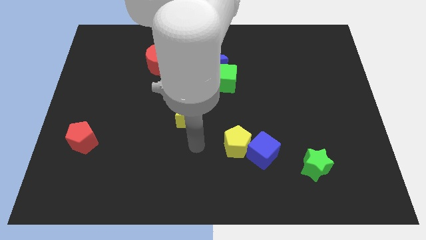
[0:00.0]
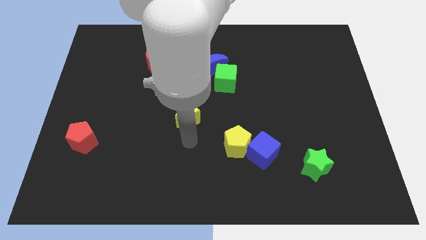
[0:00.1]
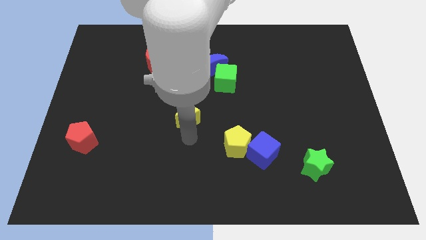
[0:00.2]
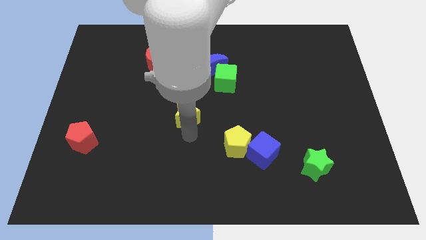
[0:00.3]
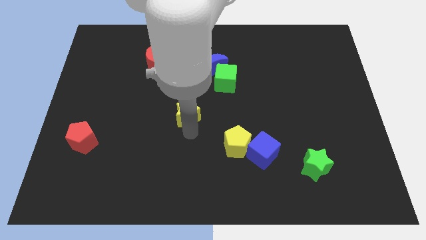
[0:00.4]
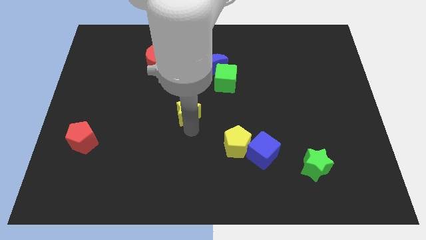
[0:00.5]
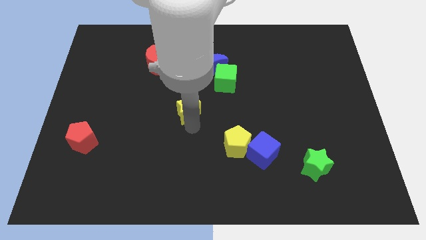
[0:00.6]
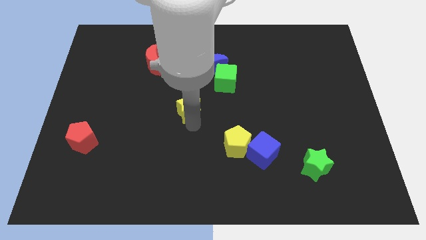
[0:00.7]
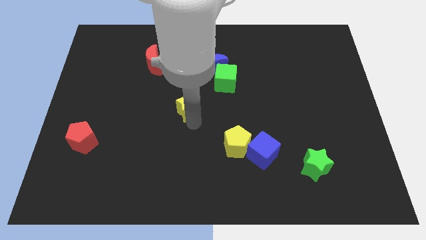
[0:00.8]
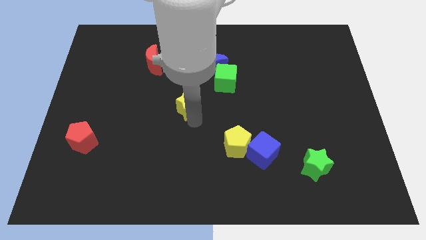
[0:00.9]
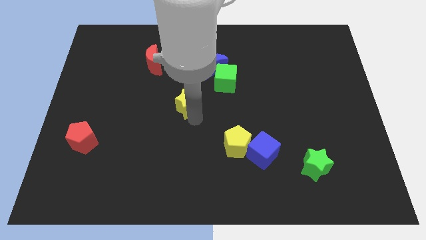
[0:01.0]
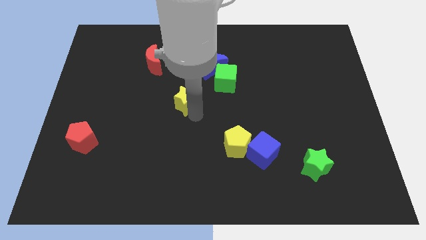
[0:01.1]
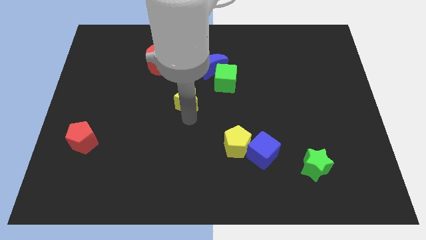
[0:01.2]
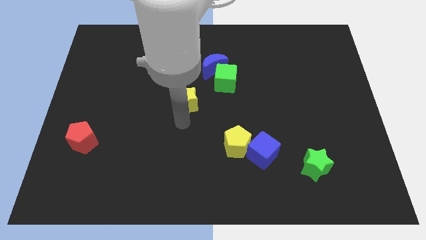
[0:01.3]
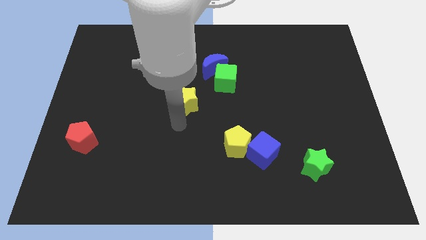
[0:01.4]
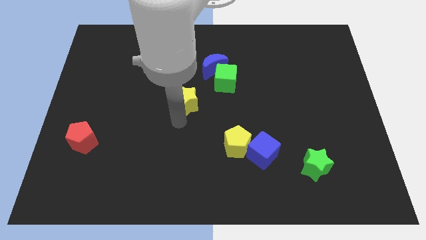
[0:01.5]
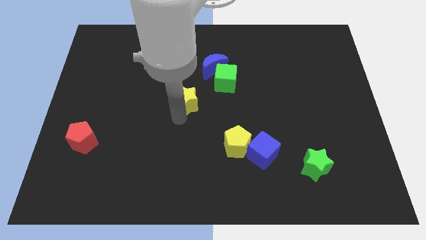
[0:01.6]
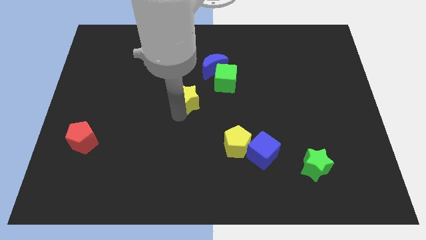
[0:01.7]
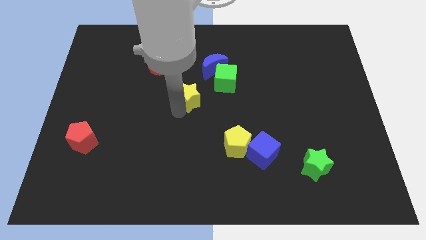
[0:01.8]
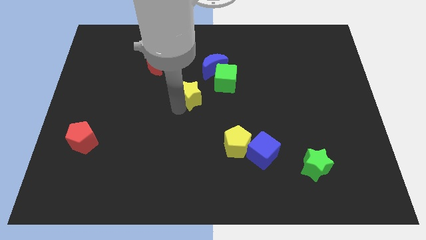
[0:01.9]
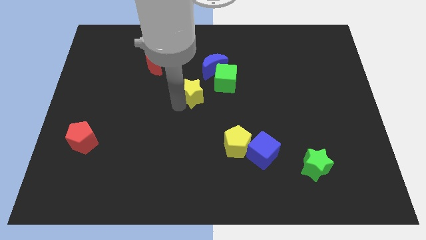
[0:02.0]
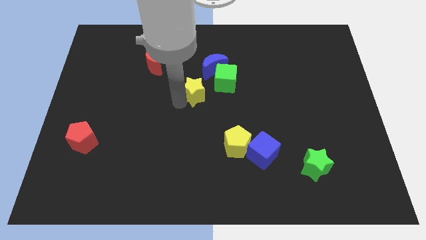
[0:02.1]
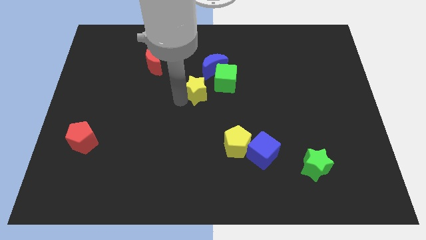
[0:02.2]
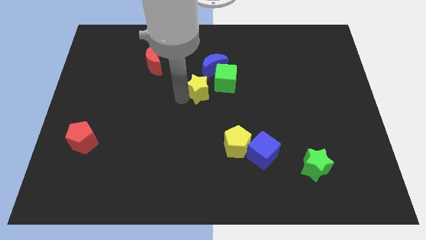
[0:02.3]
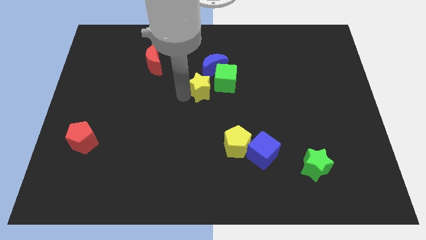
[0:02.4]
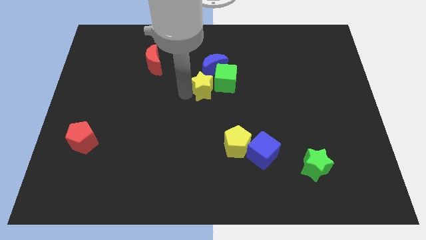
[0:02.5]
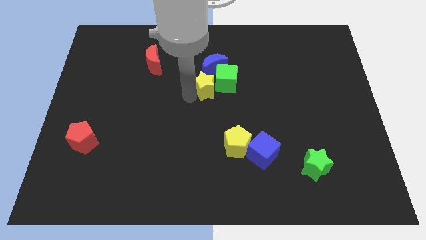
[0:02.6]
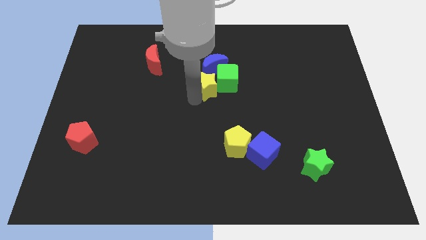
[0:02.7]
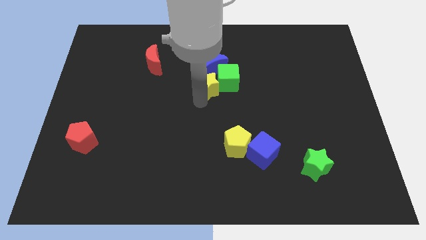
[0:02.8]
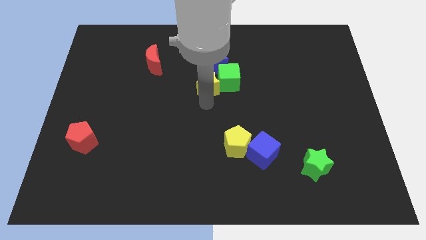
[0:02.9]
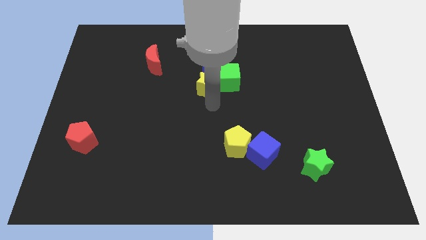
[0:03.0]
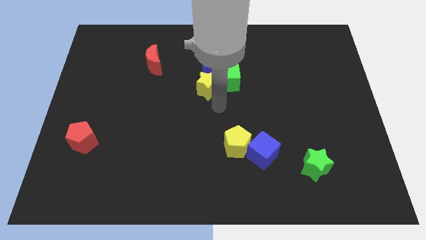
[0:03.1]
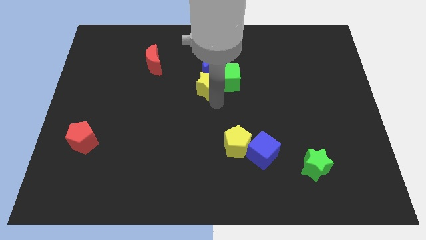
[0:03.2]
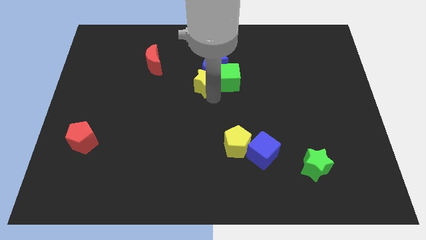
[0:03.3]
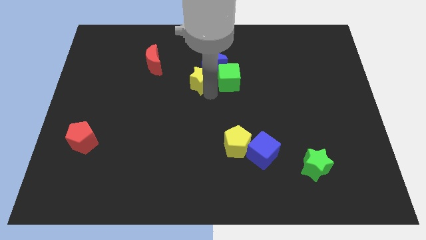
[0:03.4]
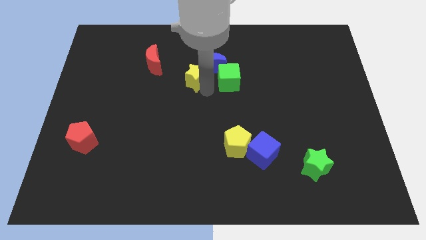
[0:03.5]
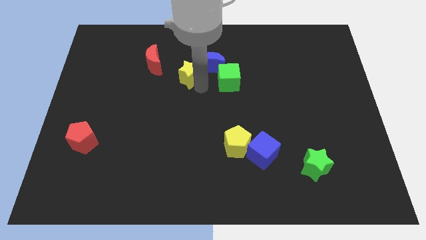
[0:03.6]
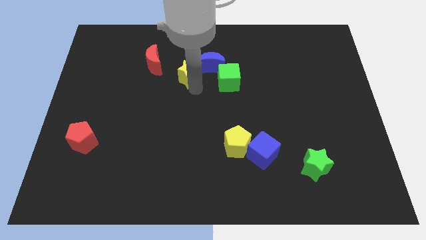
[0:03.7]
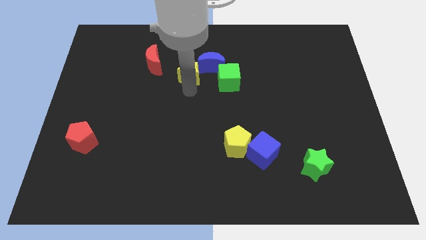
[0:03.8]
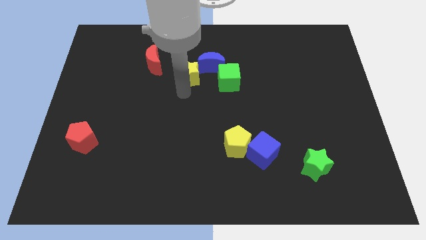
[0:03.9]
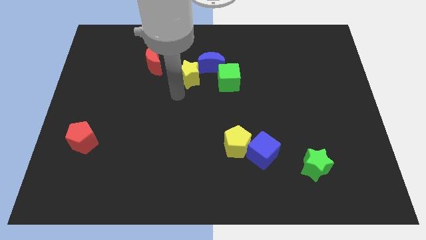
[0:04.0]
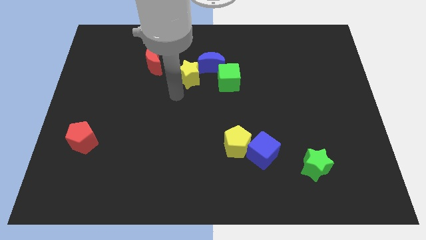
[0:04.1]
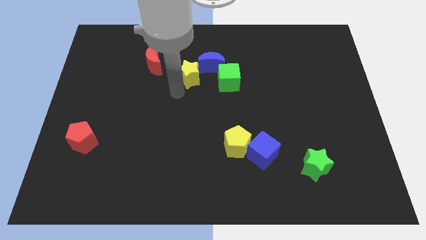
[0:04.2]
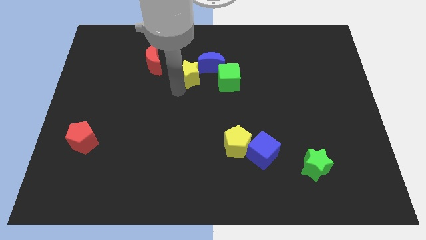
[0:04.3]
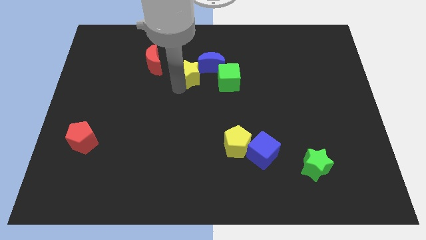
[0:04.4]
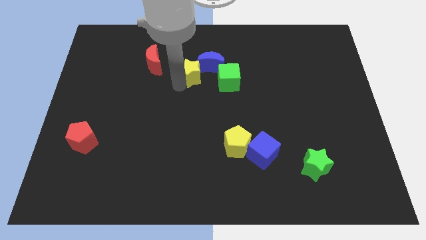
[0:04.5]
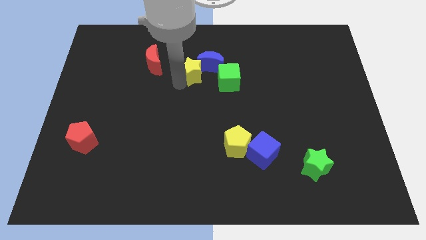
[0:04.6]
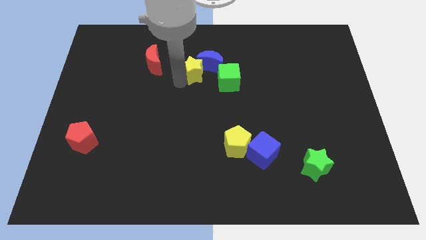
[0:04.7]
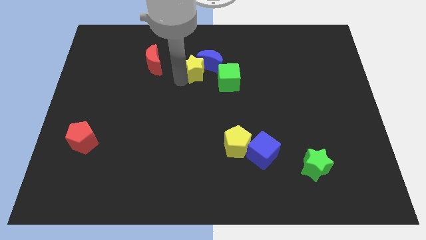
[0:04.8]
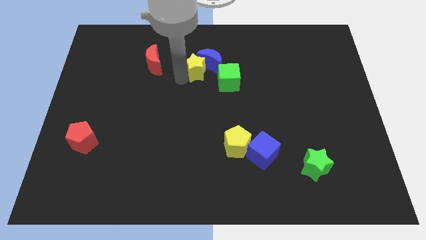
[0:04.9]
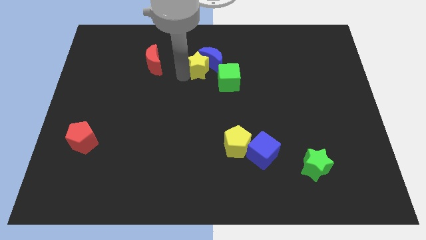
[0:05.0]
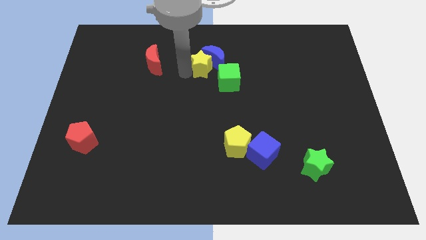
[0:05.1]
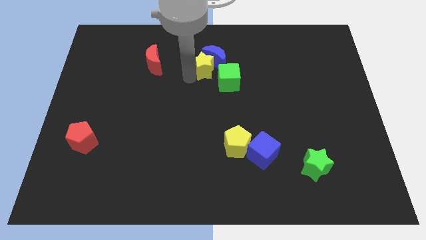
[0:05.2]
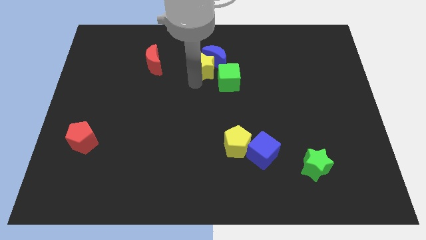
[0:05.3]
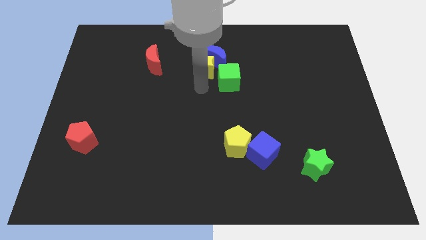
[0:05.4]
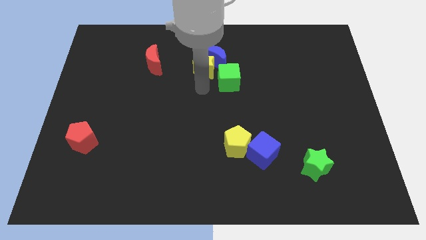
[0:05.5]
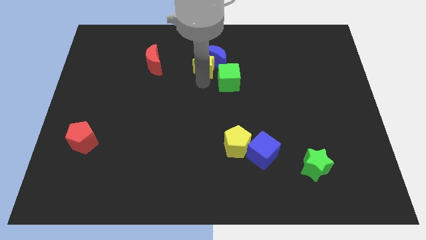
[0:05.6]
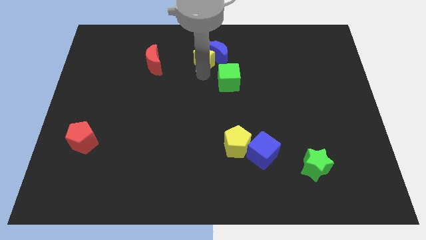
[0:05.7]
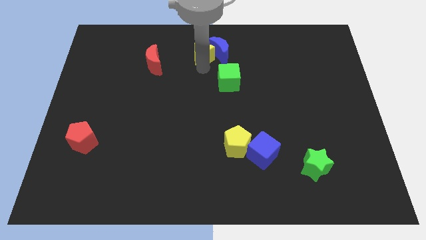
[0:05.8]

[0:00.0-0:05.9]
put the yellow star to the top
